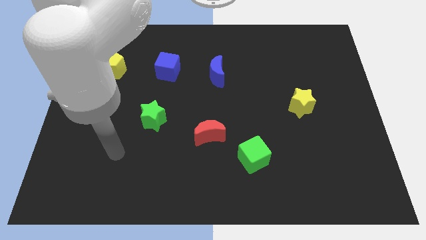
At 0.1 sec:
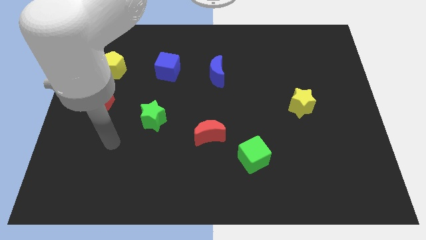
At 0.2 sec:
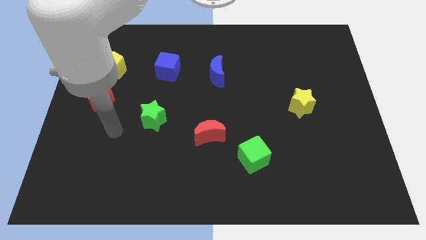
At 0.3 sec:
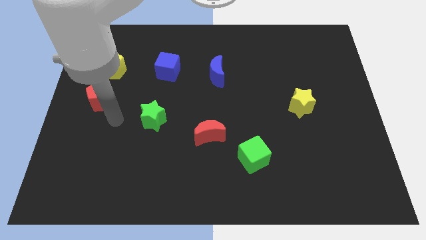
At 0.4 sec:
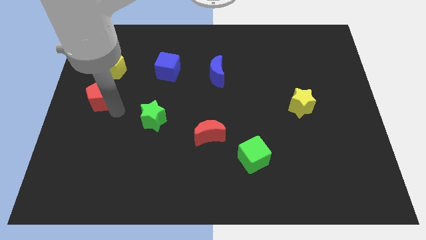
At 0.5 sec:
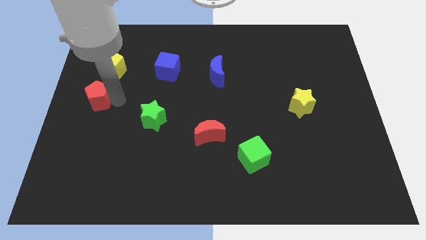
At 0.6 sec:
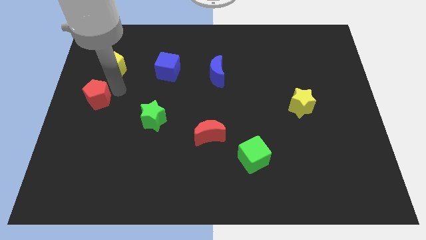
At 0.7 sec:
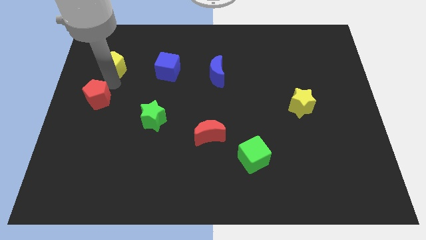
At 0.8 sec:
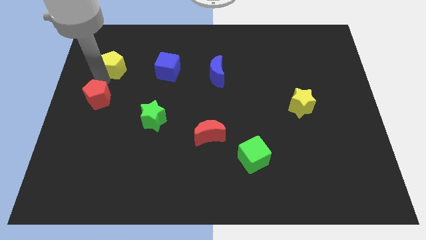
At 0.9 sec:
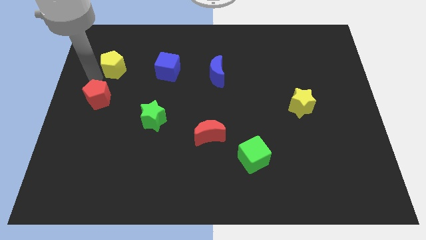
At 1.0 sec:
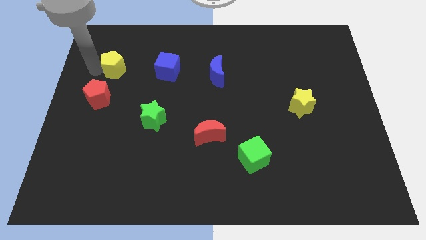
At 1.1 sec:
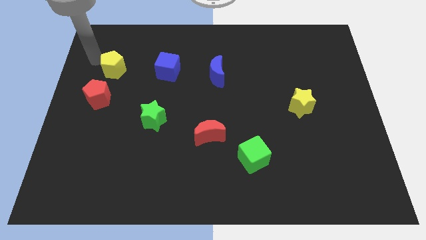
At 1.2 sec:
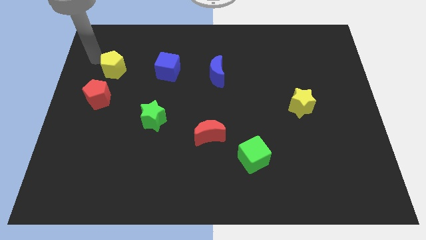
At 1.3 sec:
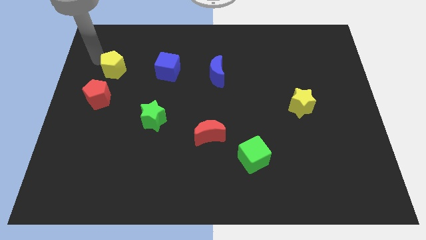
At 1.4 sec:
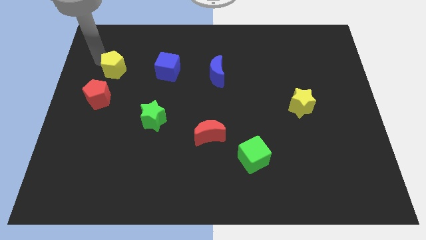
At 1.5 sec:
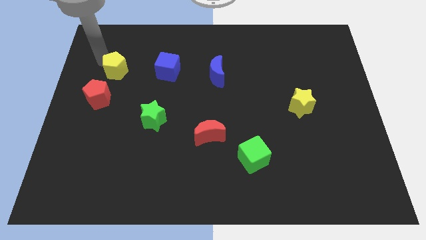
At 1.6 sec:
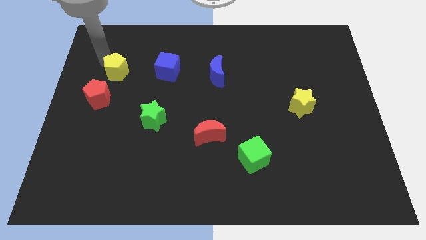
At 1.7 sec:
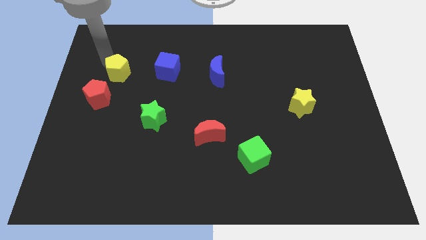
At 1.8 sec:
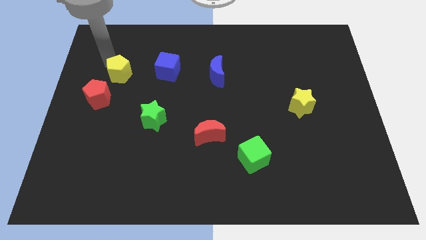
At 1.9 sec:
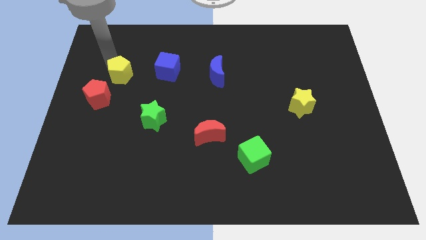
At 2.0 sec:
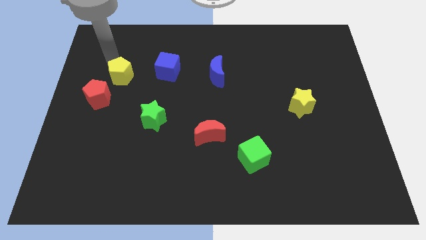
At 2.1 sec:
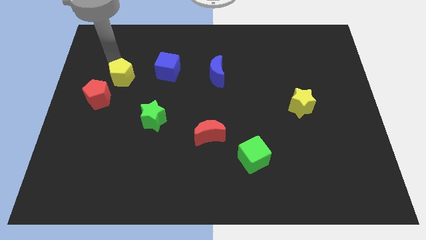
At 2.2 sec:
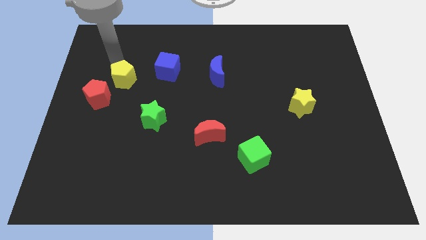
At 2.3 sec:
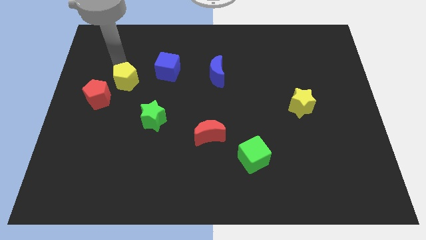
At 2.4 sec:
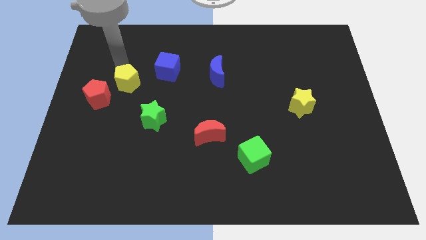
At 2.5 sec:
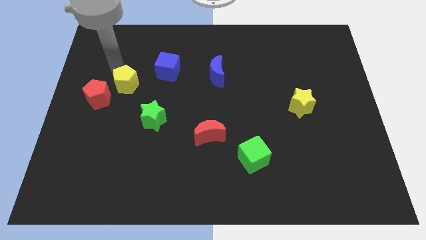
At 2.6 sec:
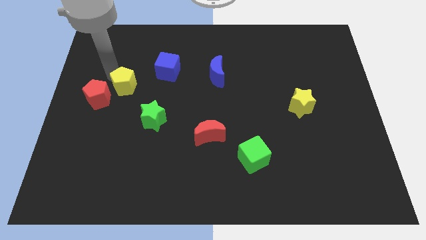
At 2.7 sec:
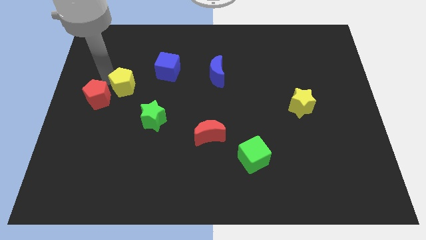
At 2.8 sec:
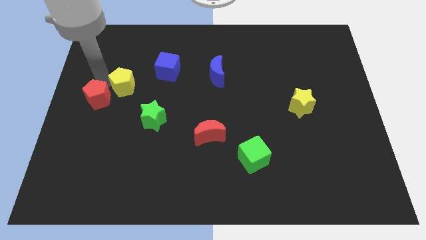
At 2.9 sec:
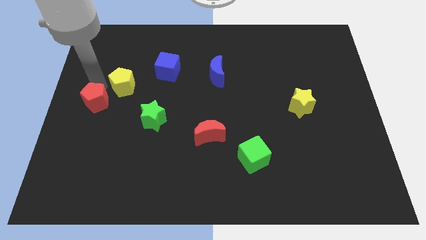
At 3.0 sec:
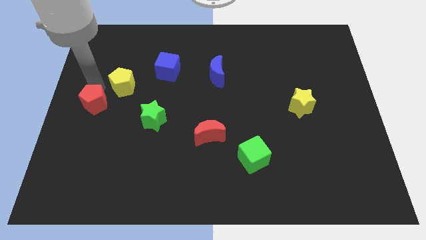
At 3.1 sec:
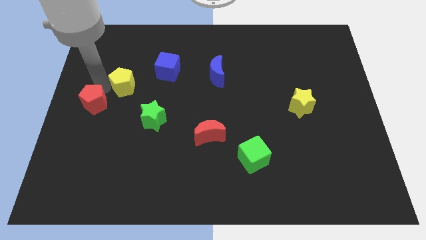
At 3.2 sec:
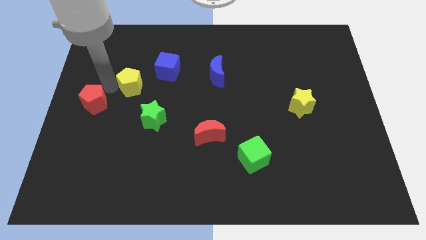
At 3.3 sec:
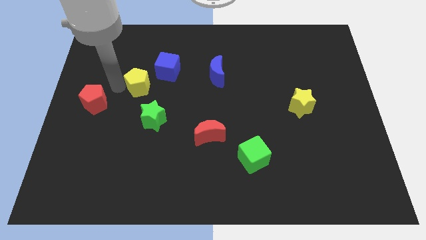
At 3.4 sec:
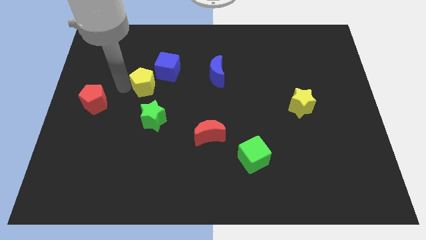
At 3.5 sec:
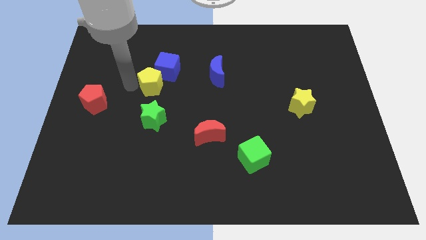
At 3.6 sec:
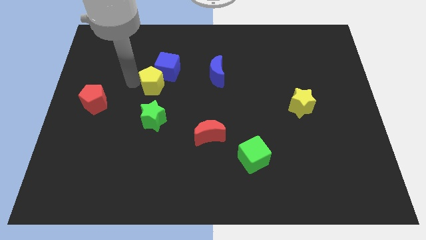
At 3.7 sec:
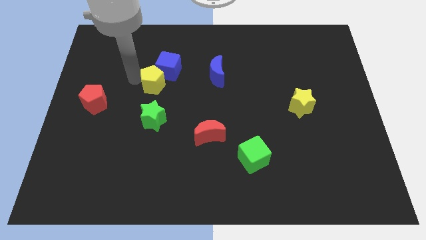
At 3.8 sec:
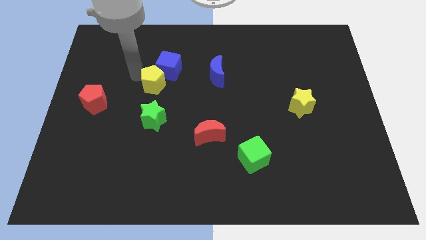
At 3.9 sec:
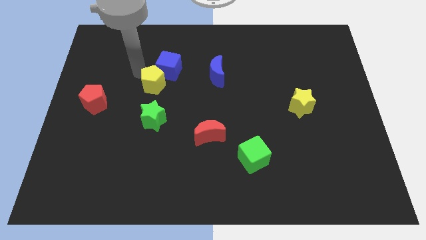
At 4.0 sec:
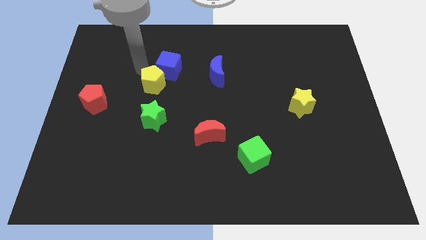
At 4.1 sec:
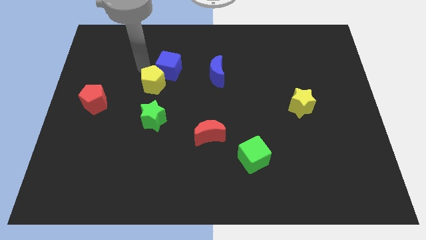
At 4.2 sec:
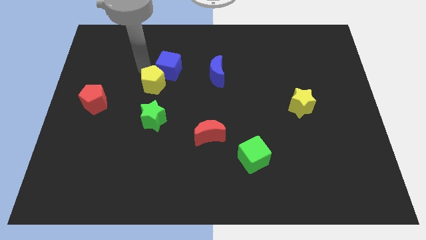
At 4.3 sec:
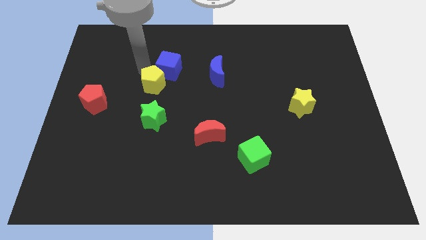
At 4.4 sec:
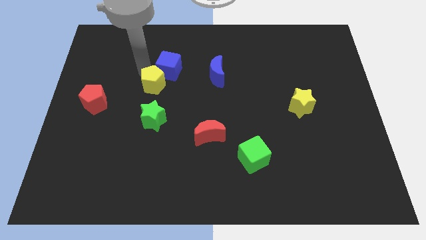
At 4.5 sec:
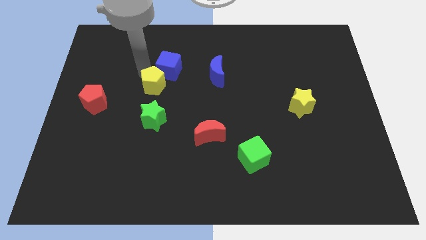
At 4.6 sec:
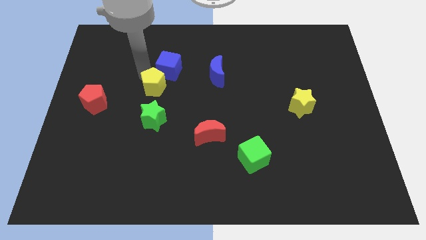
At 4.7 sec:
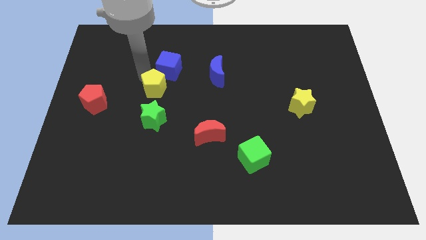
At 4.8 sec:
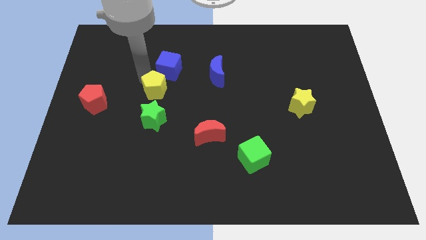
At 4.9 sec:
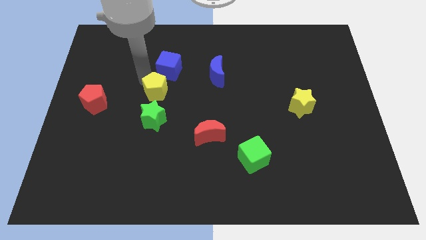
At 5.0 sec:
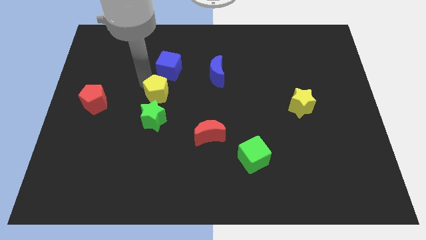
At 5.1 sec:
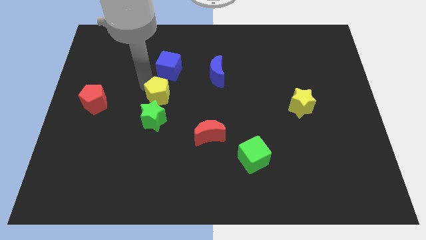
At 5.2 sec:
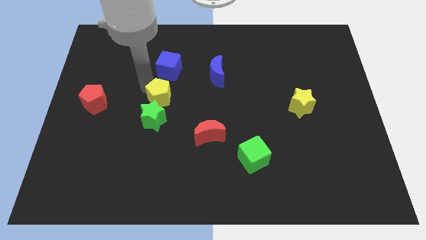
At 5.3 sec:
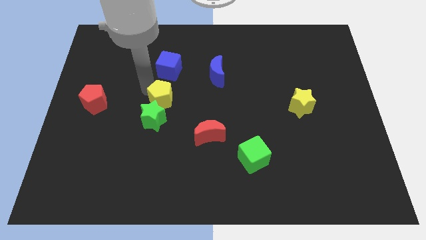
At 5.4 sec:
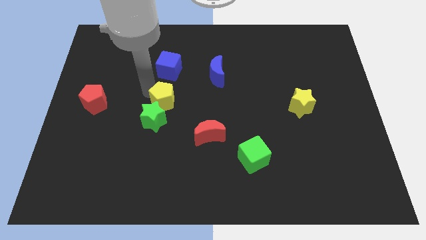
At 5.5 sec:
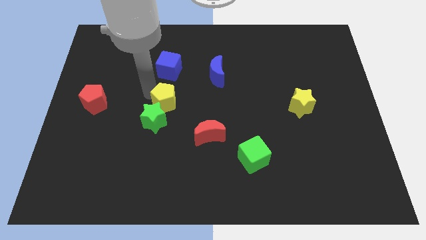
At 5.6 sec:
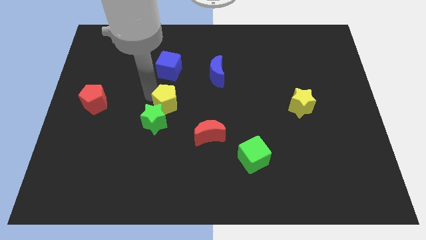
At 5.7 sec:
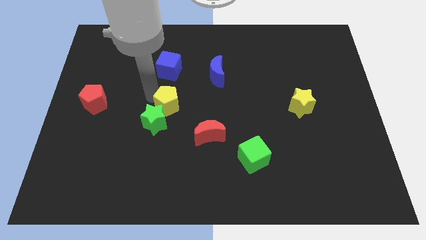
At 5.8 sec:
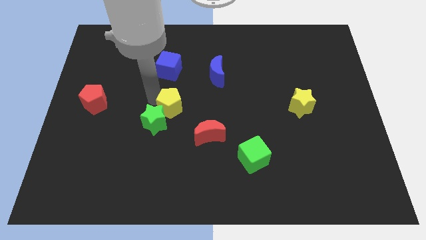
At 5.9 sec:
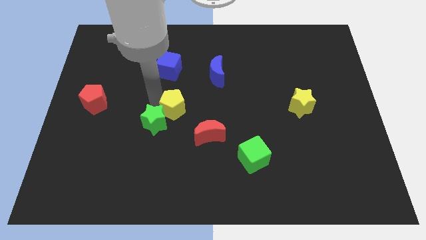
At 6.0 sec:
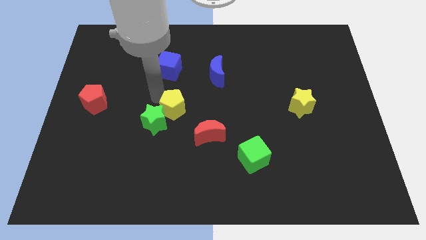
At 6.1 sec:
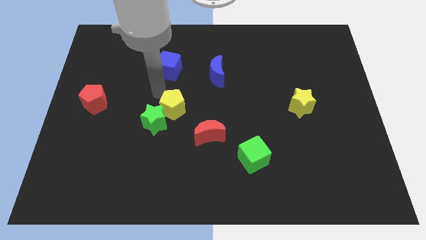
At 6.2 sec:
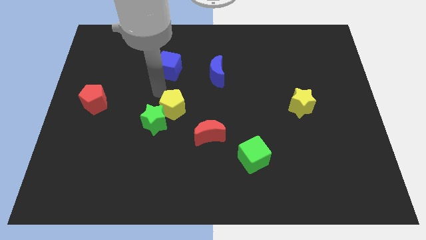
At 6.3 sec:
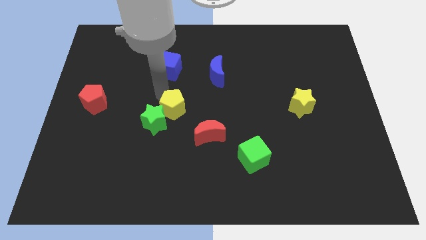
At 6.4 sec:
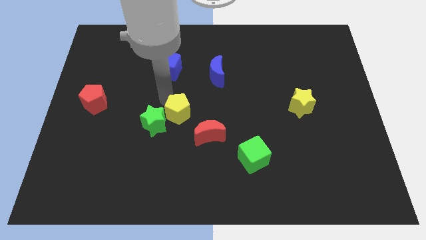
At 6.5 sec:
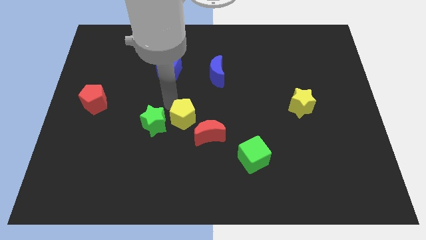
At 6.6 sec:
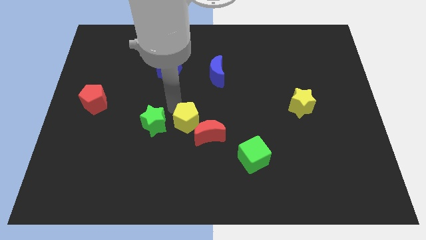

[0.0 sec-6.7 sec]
push the yellow pentagon close to the red moon

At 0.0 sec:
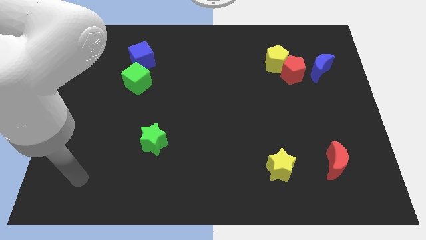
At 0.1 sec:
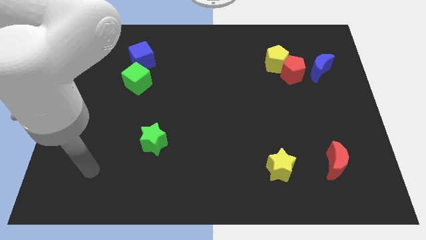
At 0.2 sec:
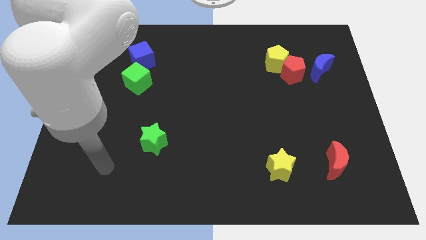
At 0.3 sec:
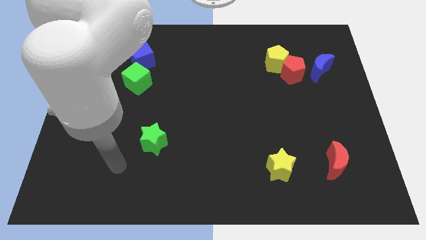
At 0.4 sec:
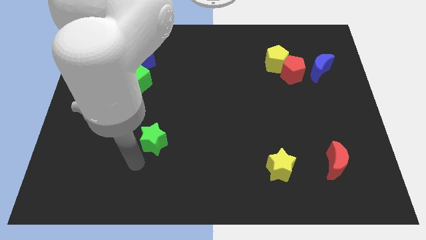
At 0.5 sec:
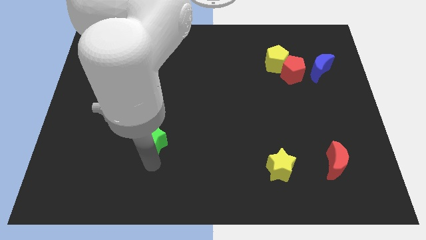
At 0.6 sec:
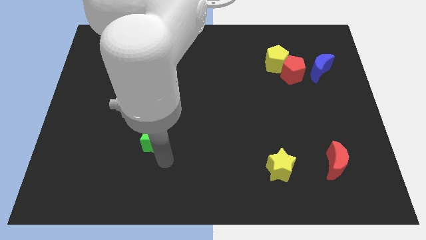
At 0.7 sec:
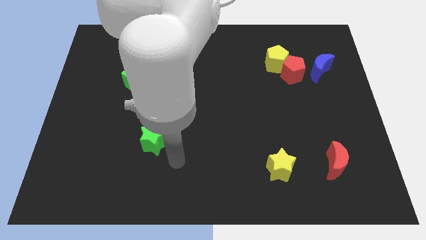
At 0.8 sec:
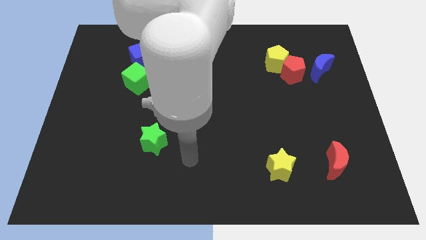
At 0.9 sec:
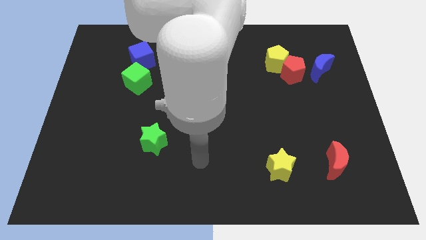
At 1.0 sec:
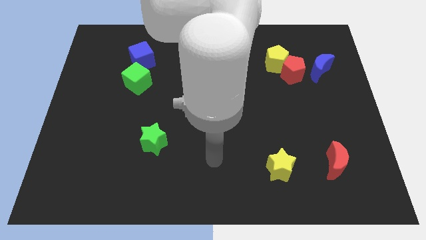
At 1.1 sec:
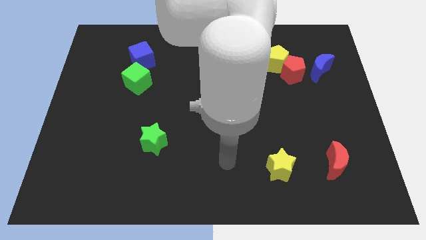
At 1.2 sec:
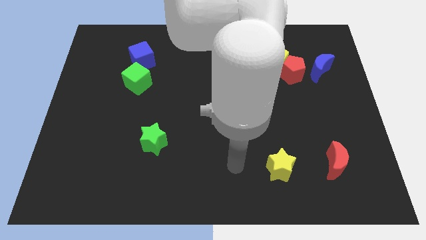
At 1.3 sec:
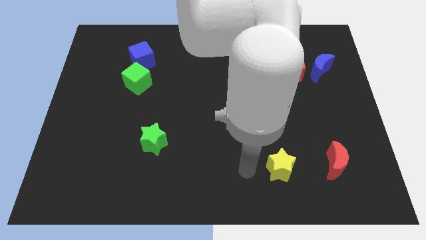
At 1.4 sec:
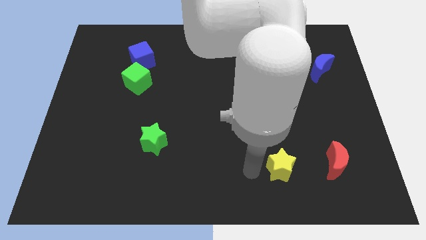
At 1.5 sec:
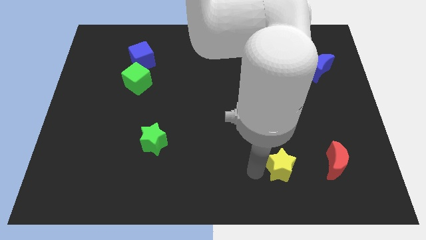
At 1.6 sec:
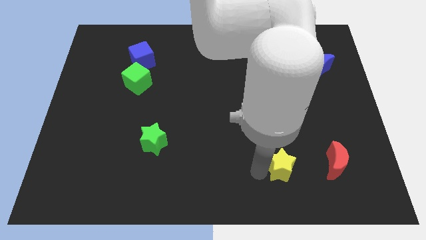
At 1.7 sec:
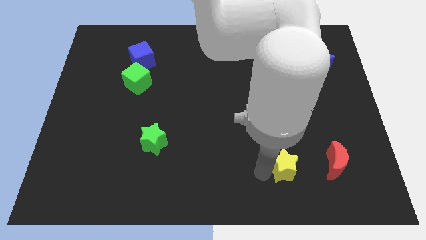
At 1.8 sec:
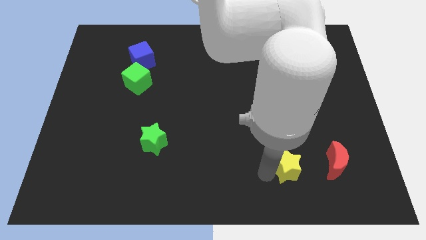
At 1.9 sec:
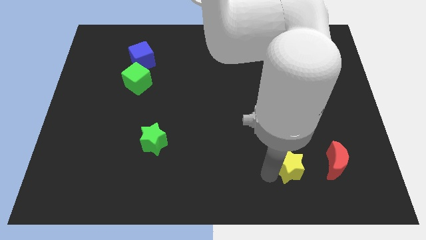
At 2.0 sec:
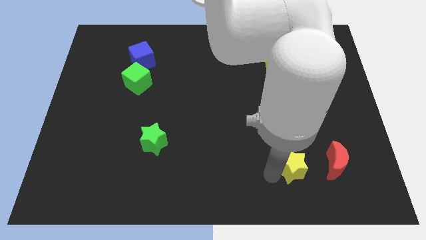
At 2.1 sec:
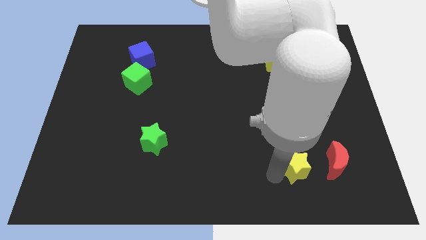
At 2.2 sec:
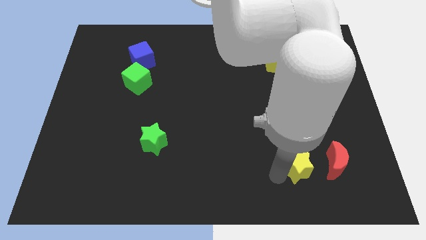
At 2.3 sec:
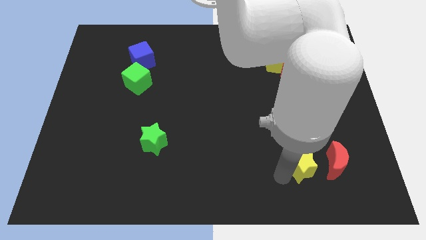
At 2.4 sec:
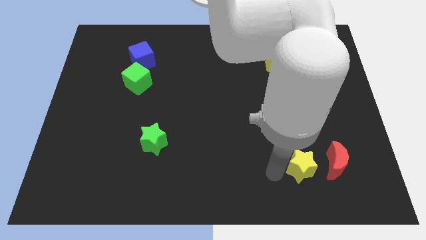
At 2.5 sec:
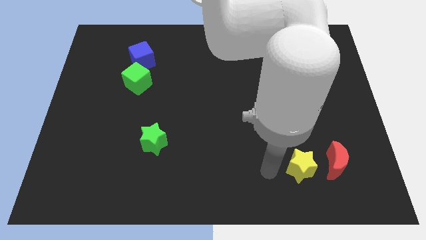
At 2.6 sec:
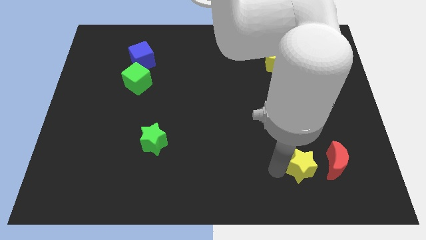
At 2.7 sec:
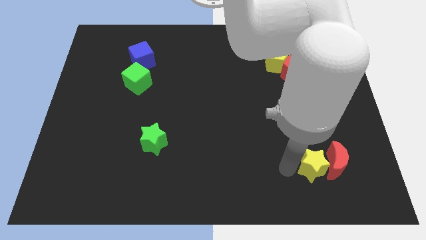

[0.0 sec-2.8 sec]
put the yellow star next to the red moon
